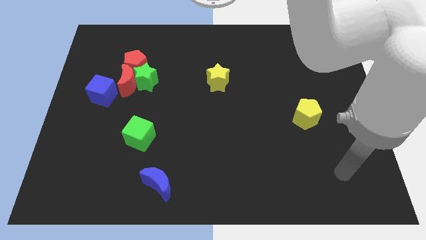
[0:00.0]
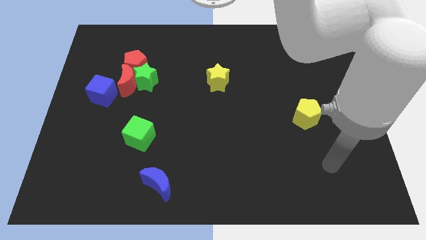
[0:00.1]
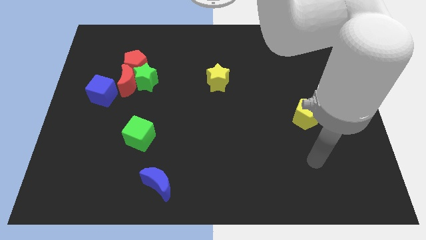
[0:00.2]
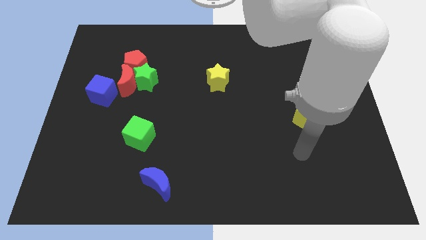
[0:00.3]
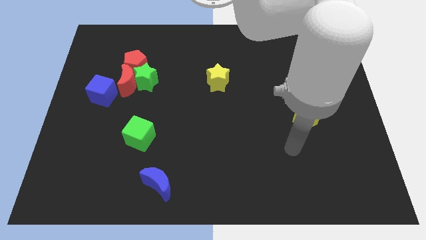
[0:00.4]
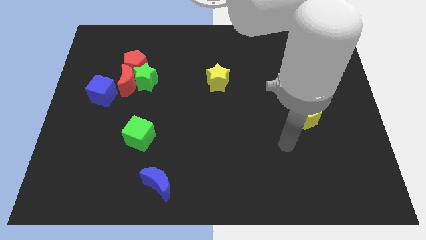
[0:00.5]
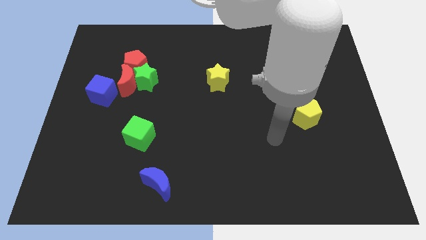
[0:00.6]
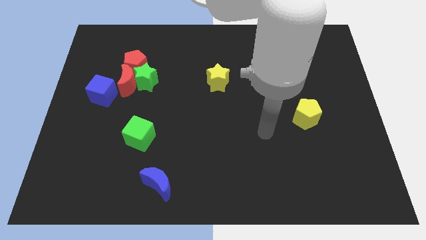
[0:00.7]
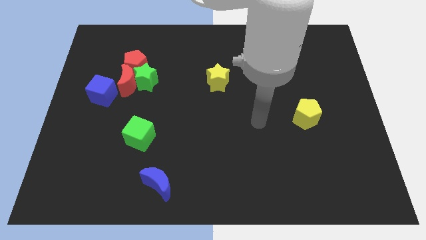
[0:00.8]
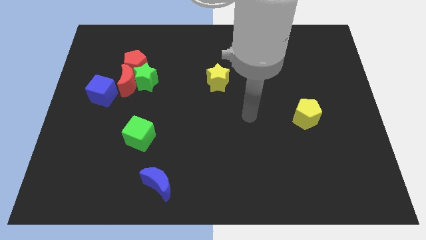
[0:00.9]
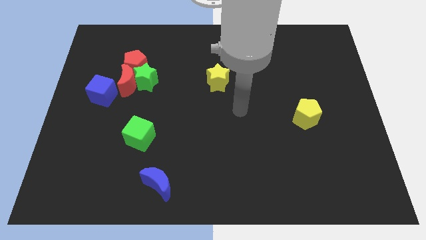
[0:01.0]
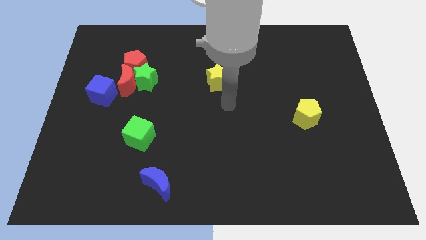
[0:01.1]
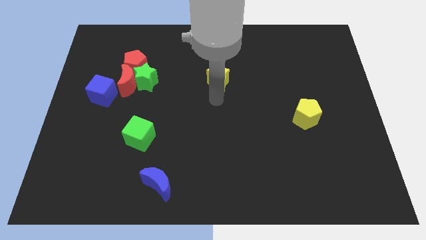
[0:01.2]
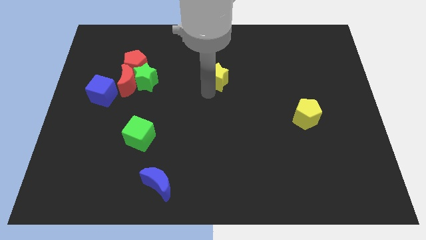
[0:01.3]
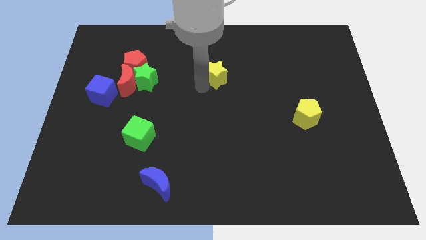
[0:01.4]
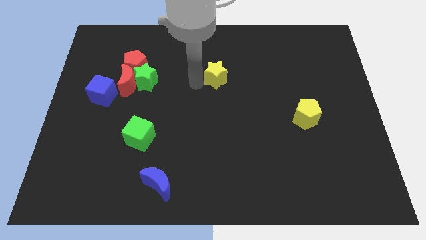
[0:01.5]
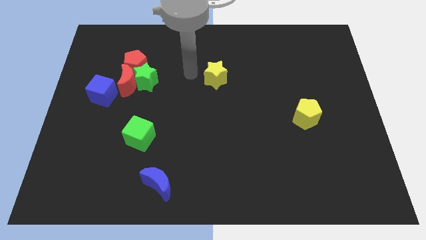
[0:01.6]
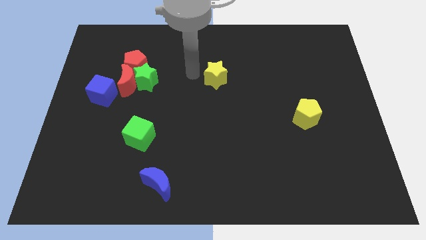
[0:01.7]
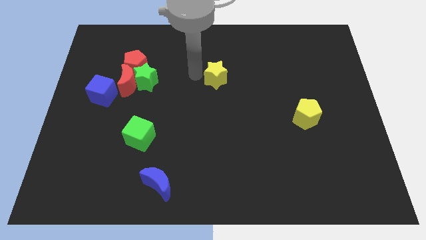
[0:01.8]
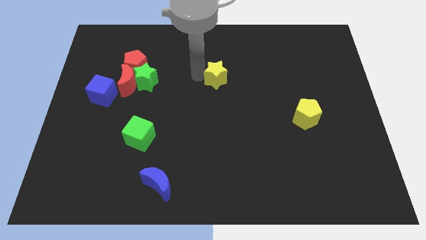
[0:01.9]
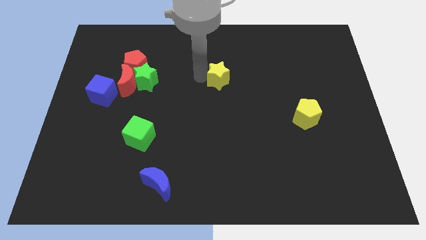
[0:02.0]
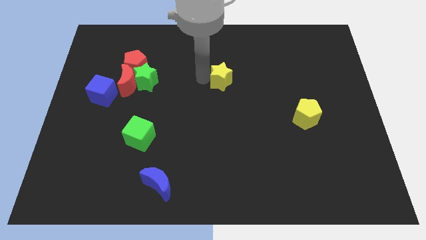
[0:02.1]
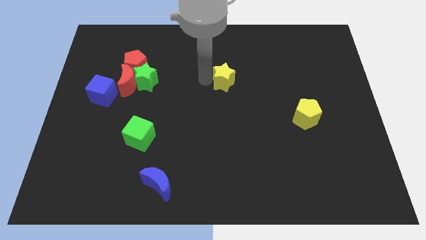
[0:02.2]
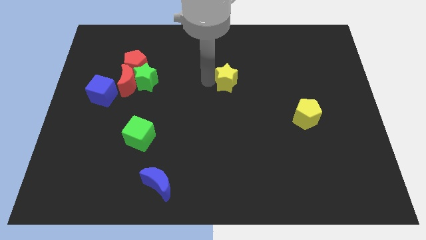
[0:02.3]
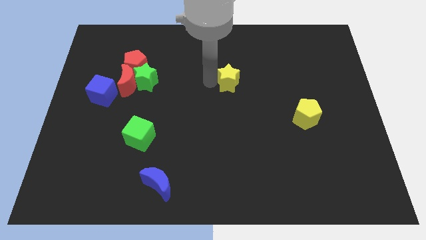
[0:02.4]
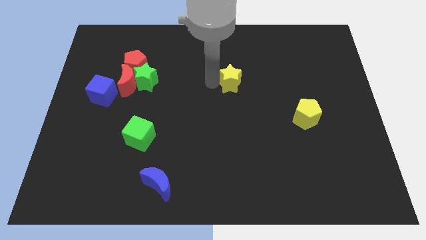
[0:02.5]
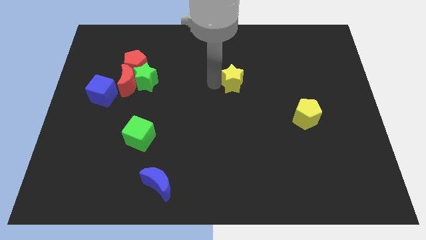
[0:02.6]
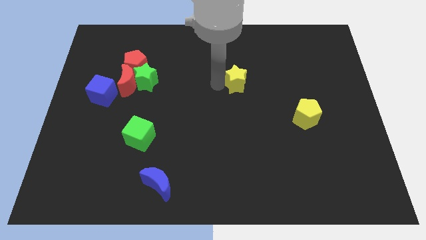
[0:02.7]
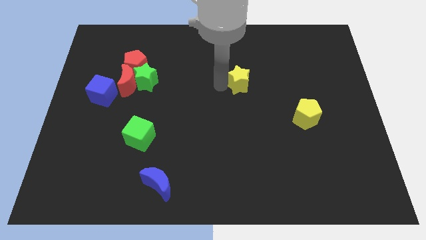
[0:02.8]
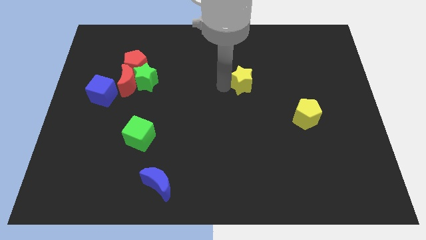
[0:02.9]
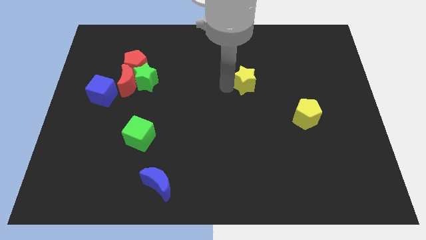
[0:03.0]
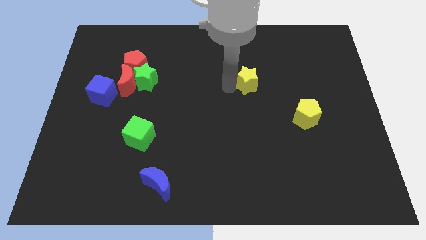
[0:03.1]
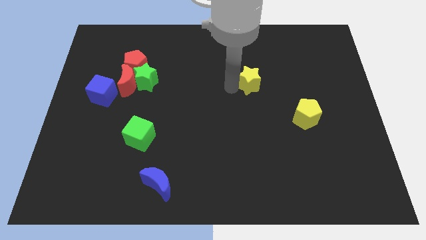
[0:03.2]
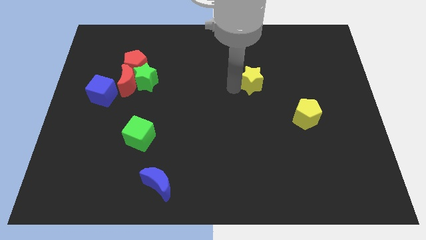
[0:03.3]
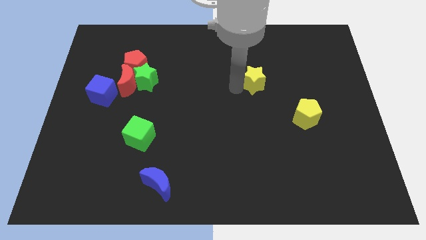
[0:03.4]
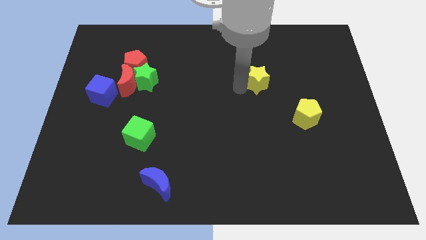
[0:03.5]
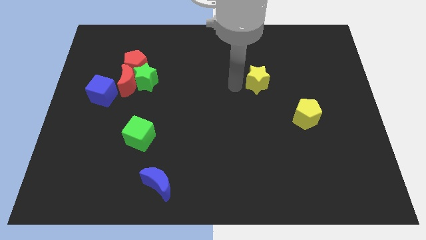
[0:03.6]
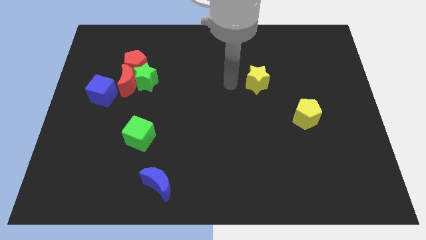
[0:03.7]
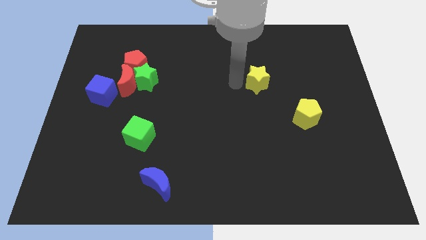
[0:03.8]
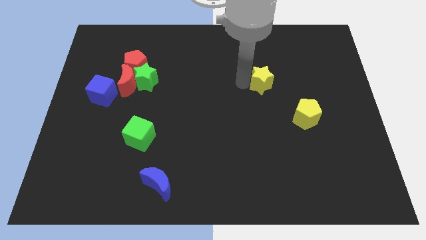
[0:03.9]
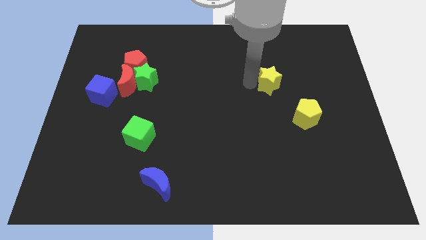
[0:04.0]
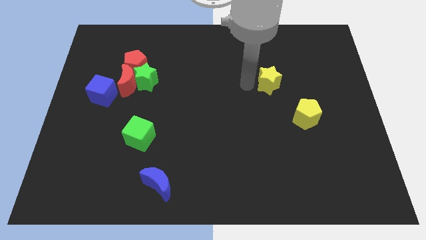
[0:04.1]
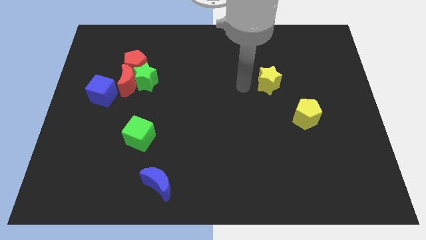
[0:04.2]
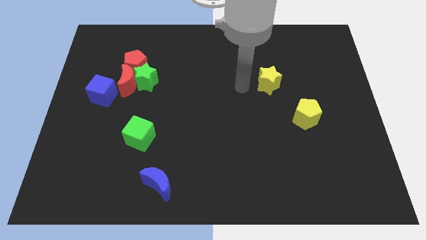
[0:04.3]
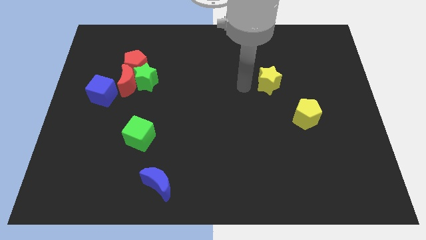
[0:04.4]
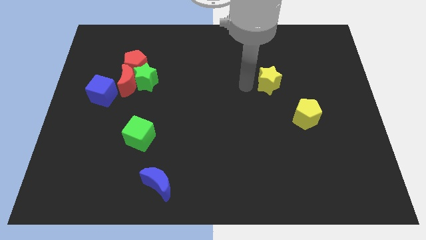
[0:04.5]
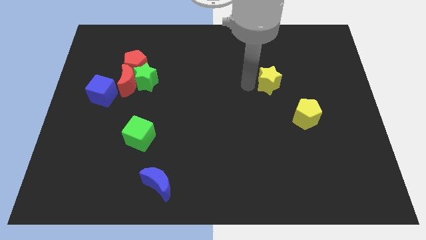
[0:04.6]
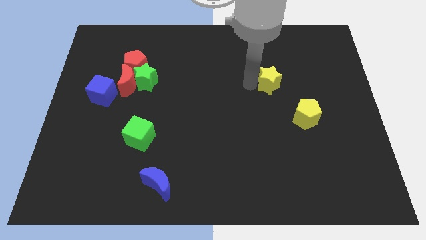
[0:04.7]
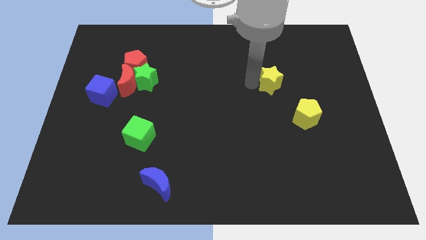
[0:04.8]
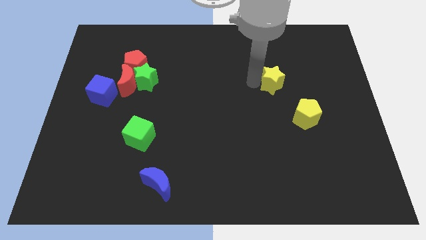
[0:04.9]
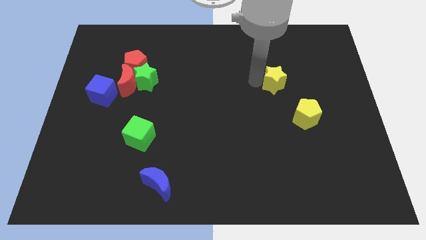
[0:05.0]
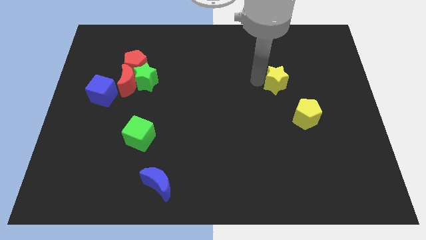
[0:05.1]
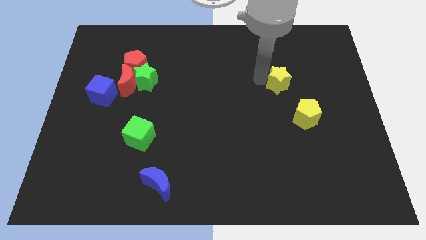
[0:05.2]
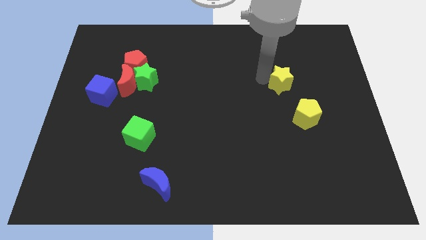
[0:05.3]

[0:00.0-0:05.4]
put the yellow star above the yellow pentagon

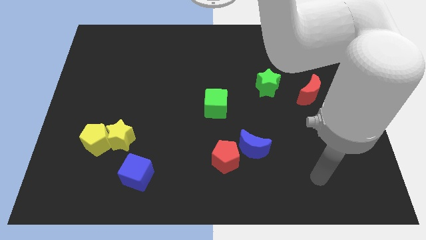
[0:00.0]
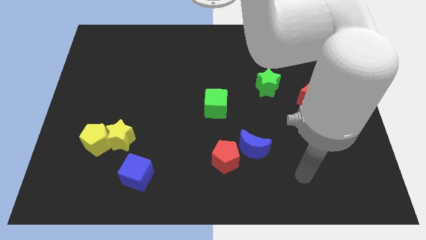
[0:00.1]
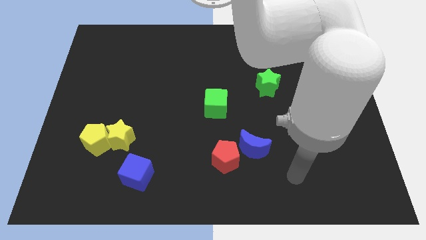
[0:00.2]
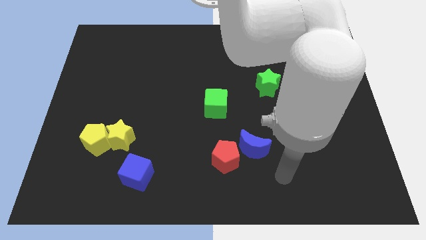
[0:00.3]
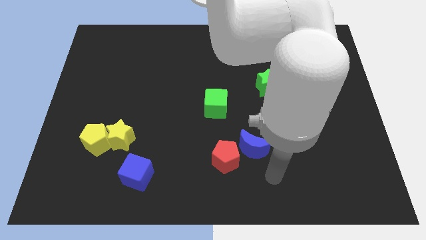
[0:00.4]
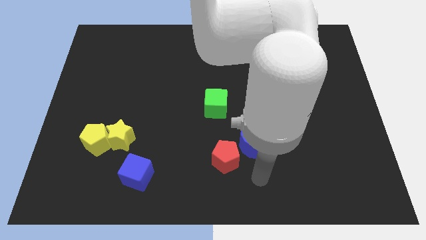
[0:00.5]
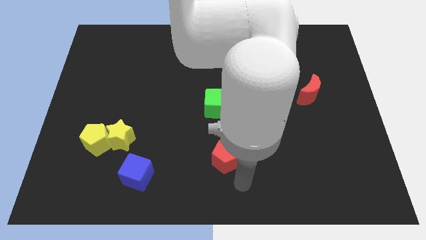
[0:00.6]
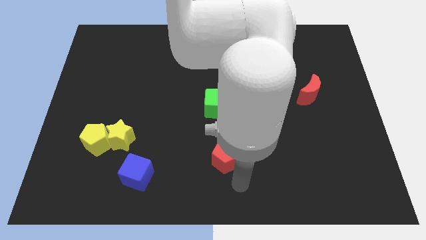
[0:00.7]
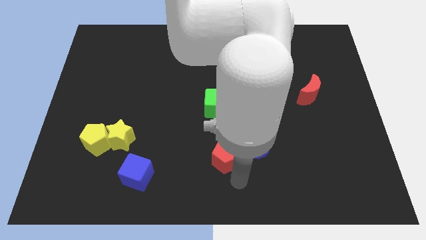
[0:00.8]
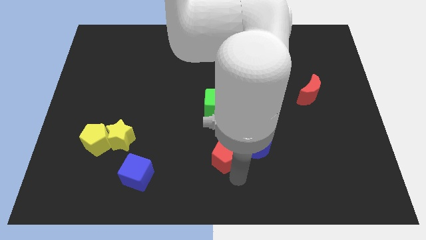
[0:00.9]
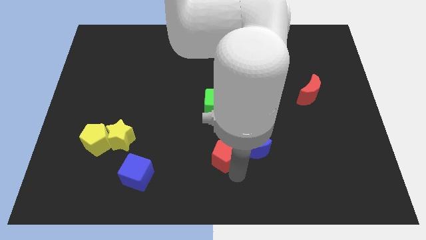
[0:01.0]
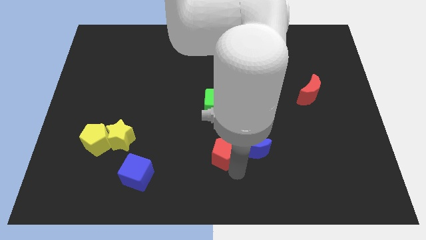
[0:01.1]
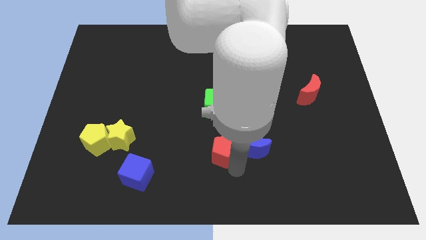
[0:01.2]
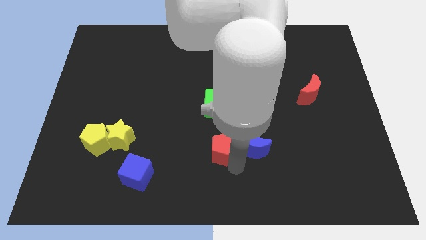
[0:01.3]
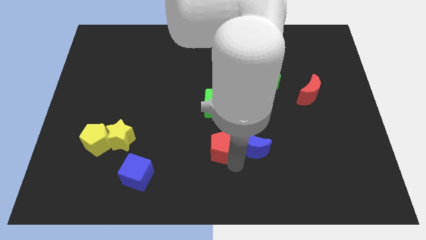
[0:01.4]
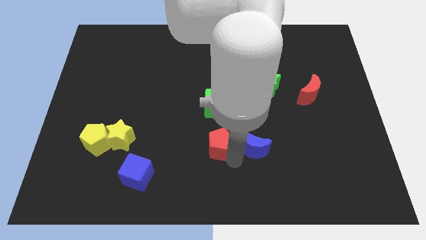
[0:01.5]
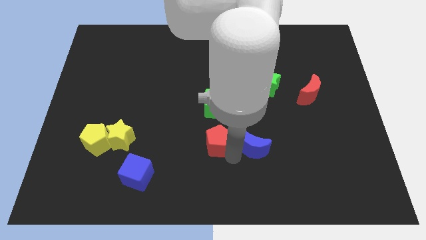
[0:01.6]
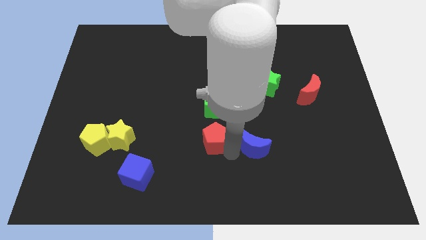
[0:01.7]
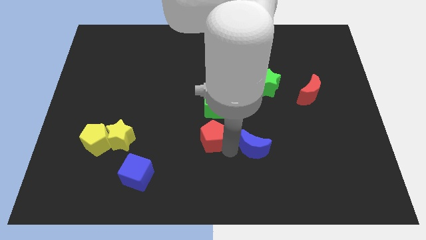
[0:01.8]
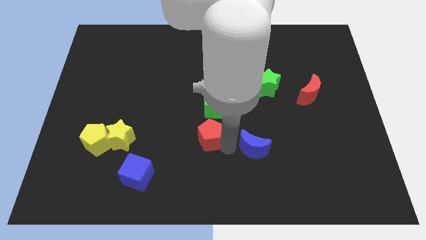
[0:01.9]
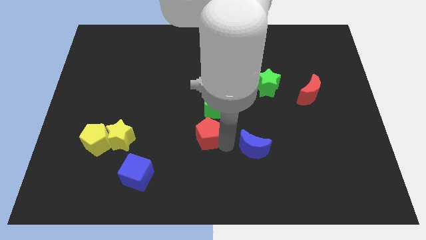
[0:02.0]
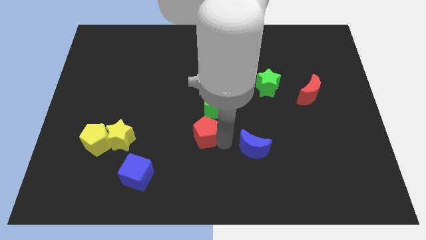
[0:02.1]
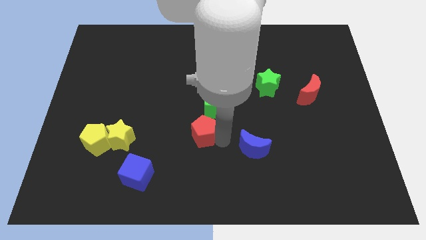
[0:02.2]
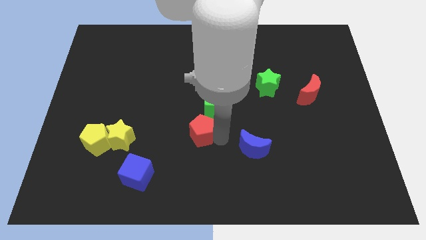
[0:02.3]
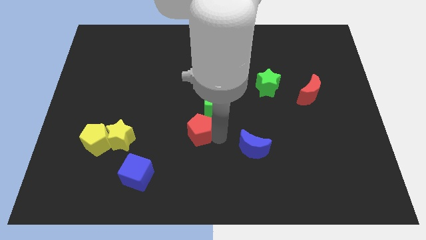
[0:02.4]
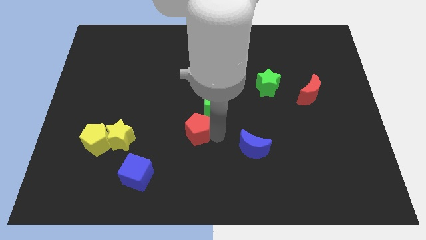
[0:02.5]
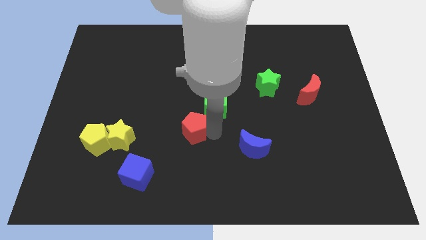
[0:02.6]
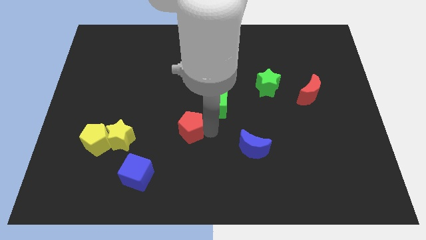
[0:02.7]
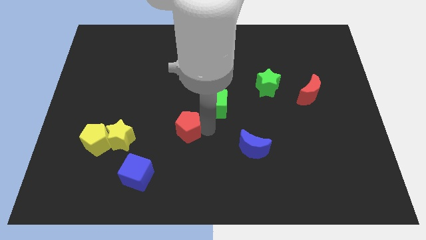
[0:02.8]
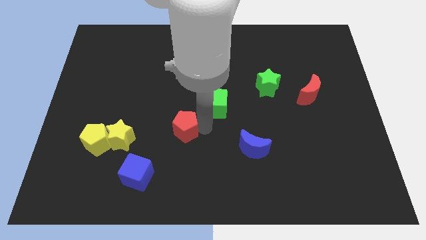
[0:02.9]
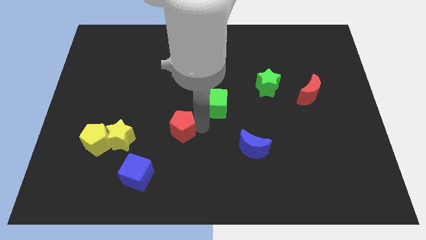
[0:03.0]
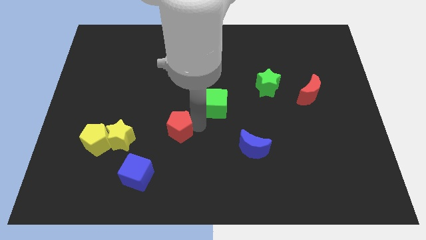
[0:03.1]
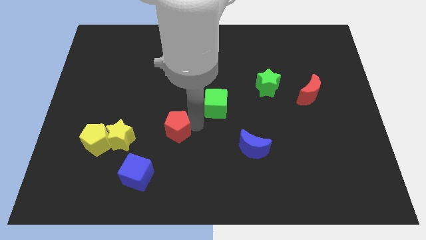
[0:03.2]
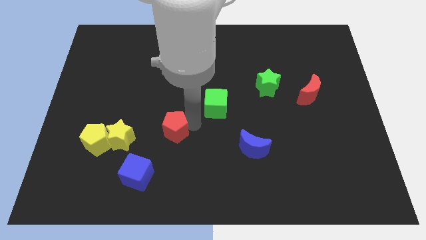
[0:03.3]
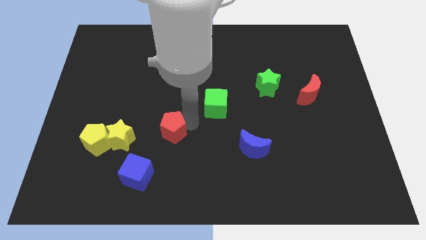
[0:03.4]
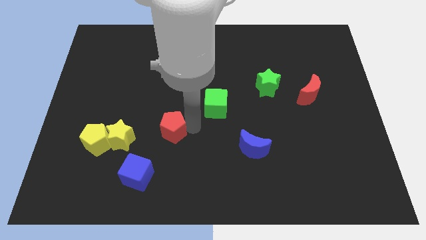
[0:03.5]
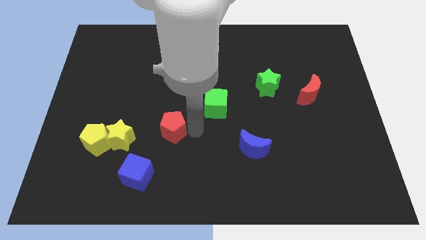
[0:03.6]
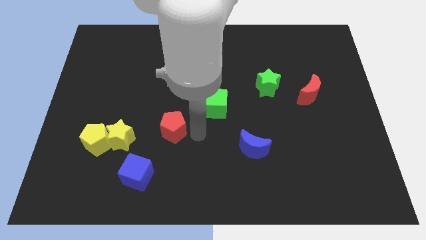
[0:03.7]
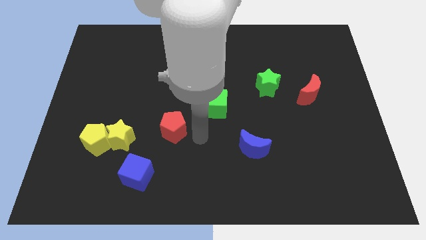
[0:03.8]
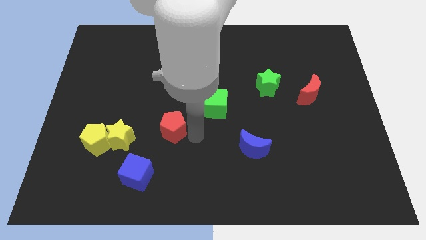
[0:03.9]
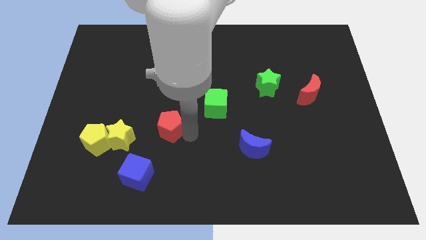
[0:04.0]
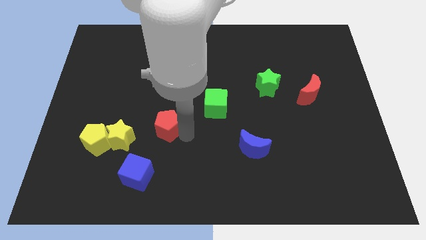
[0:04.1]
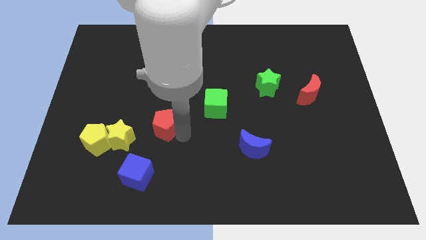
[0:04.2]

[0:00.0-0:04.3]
put the red pentagon to the top right side of the yellow star
